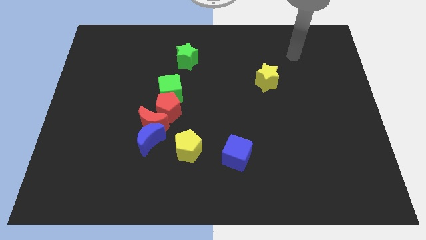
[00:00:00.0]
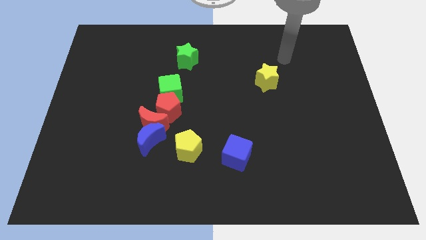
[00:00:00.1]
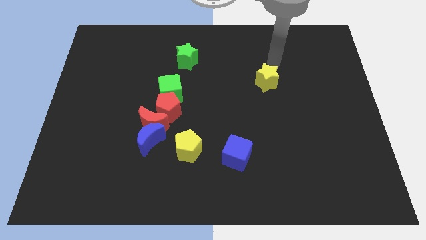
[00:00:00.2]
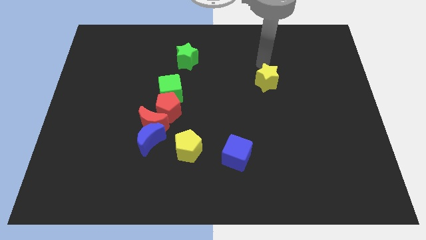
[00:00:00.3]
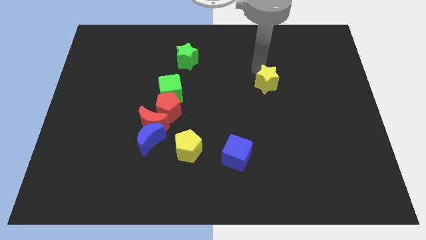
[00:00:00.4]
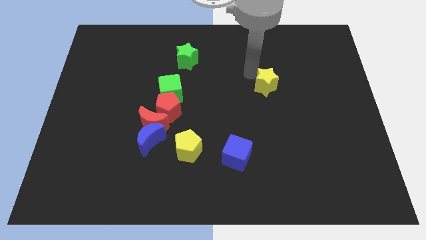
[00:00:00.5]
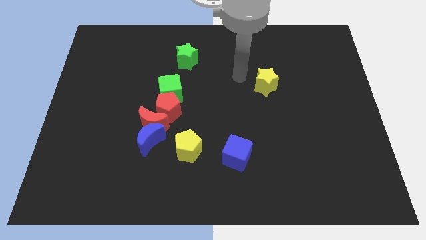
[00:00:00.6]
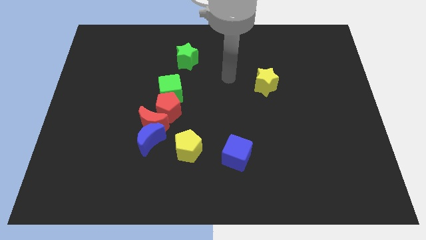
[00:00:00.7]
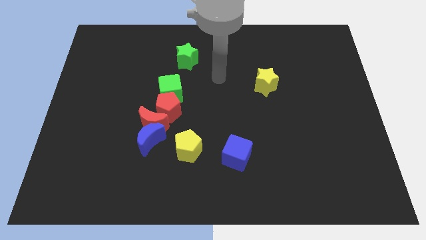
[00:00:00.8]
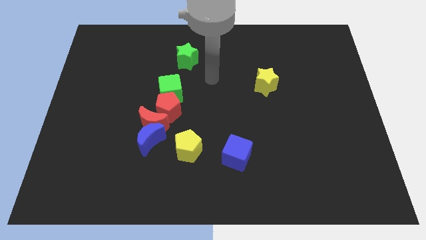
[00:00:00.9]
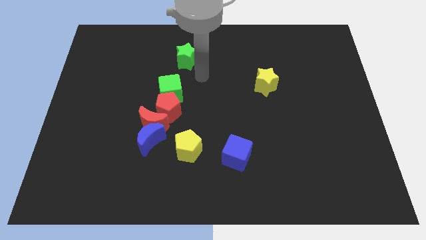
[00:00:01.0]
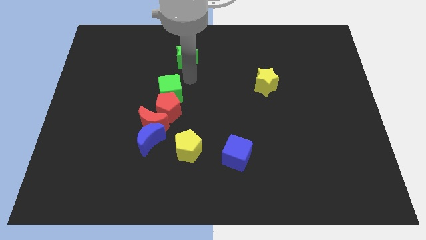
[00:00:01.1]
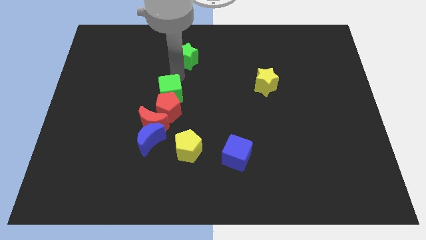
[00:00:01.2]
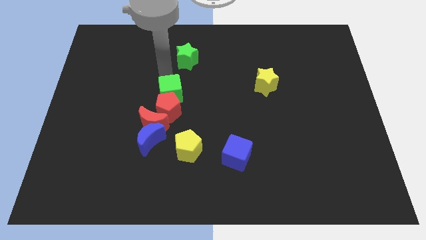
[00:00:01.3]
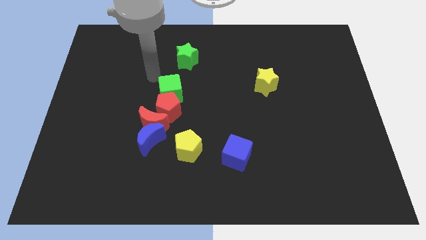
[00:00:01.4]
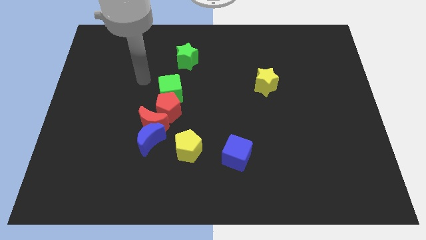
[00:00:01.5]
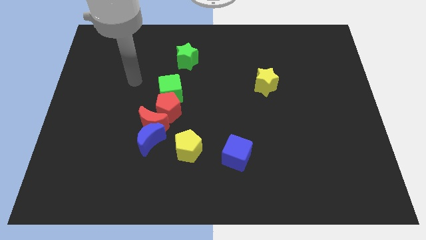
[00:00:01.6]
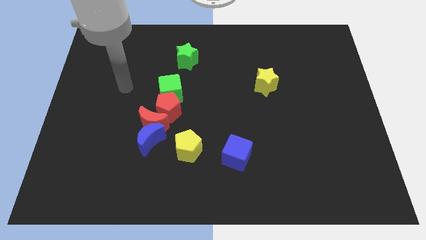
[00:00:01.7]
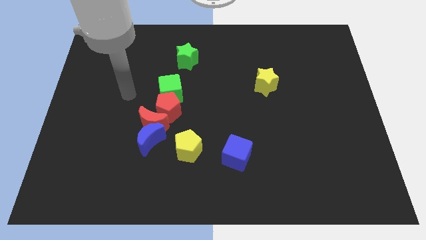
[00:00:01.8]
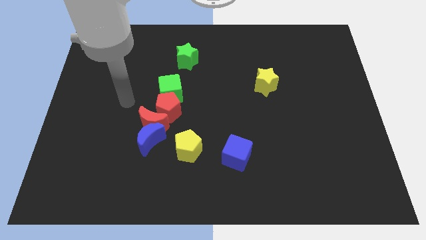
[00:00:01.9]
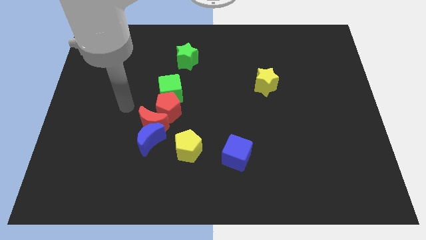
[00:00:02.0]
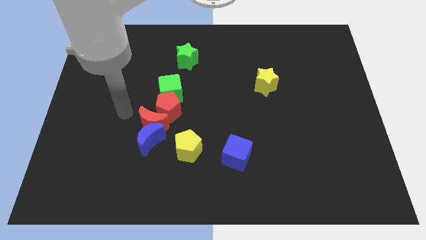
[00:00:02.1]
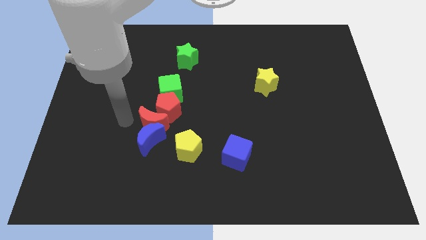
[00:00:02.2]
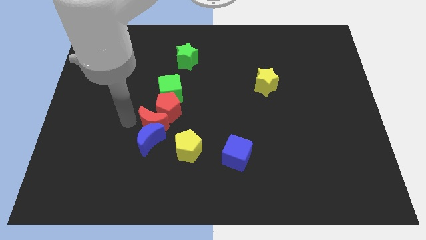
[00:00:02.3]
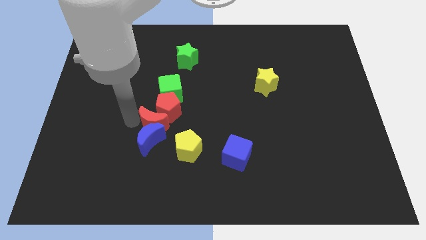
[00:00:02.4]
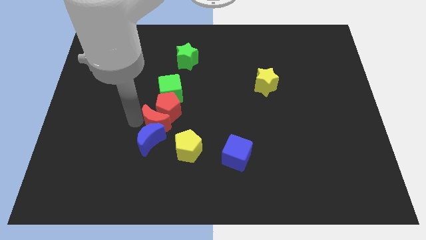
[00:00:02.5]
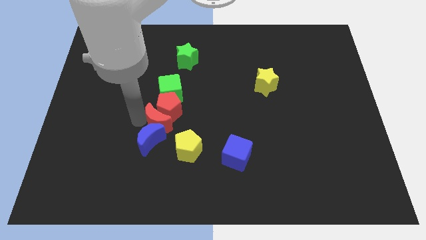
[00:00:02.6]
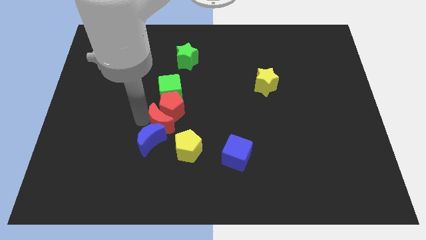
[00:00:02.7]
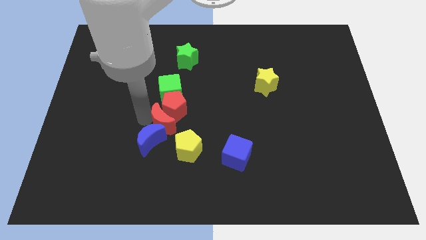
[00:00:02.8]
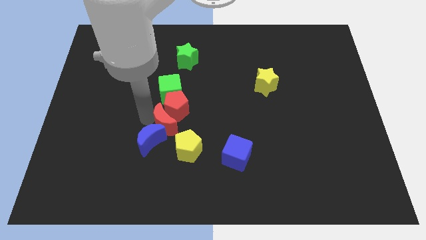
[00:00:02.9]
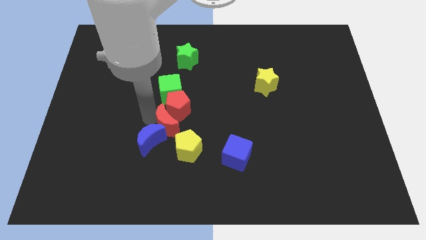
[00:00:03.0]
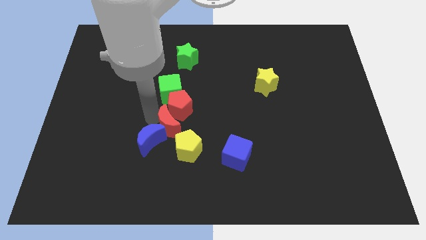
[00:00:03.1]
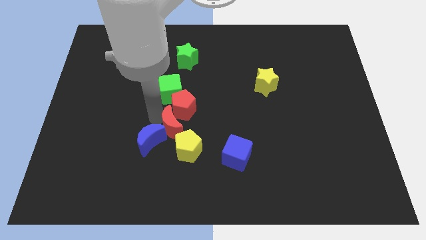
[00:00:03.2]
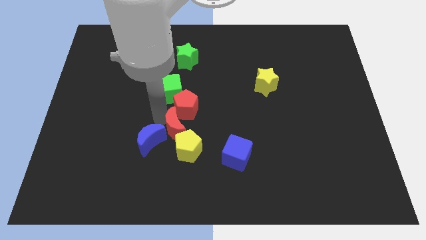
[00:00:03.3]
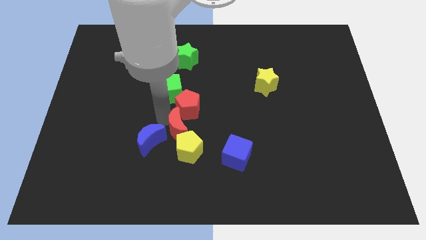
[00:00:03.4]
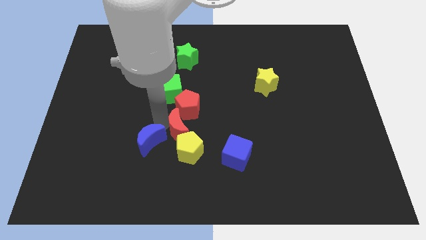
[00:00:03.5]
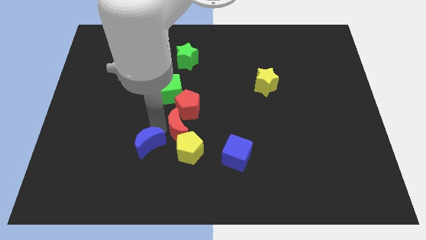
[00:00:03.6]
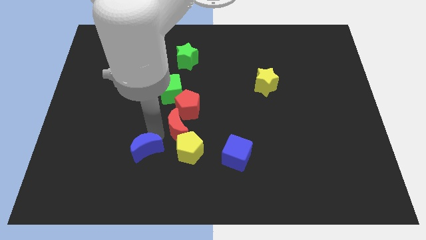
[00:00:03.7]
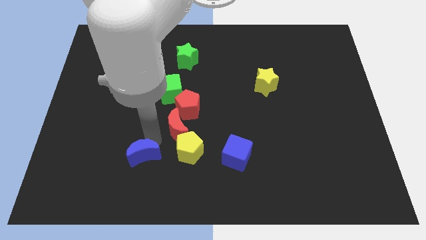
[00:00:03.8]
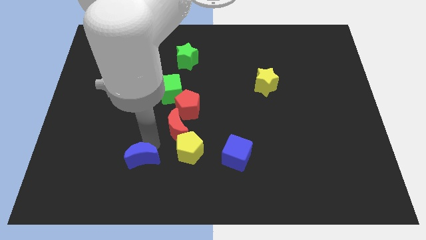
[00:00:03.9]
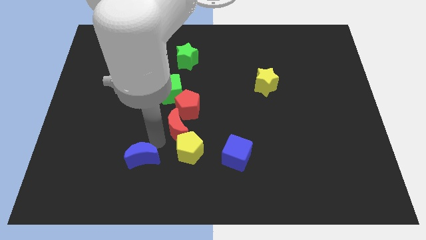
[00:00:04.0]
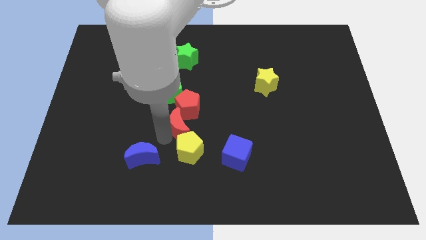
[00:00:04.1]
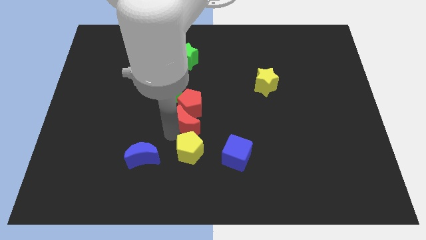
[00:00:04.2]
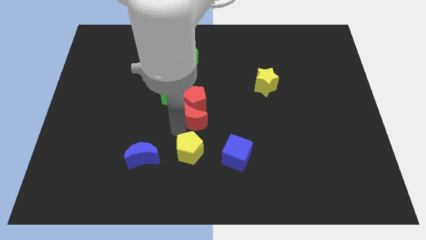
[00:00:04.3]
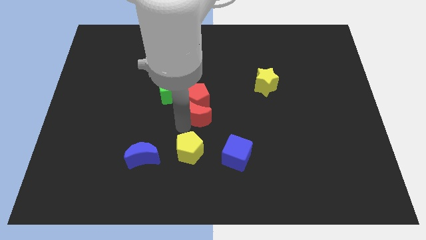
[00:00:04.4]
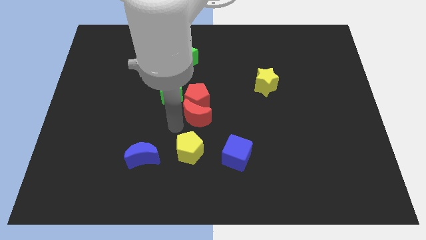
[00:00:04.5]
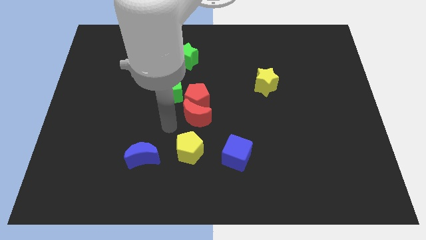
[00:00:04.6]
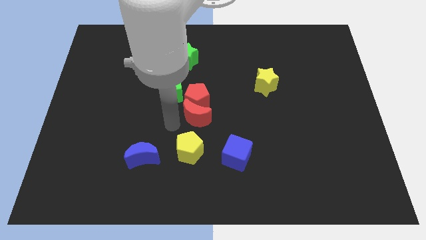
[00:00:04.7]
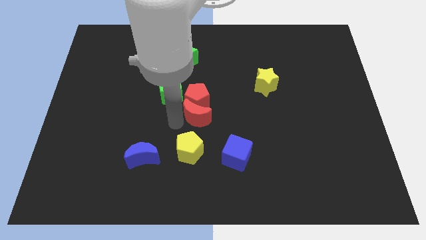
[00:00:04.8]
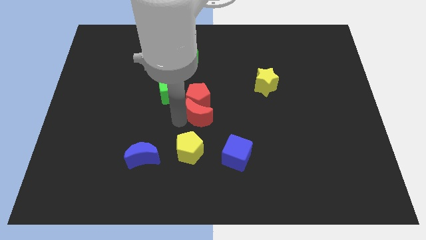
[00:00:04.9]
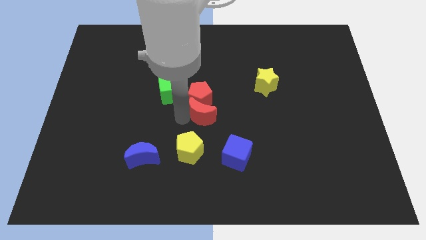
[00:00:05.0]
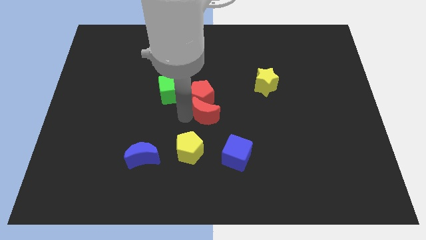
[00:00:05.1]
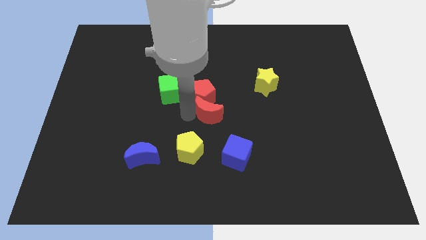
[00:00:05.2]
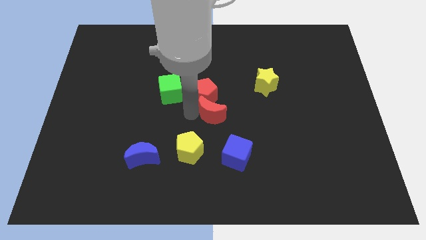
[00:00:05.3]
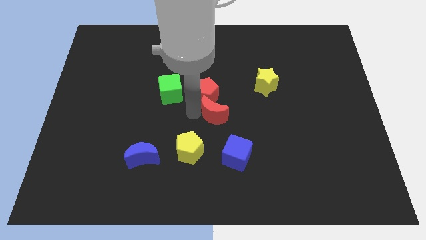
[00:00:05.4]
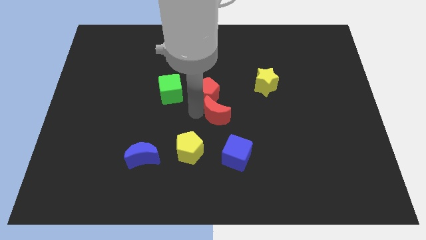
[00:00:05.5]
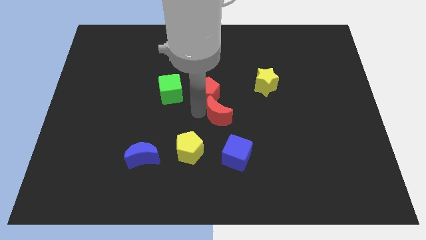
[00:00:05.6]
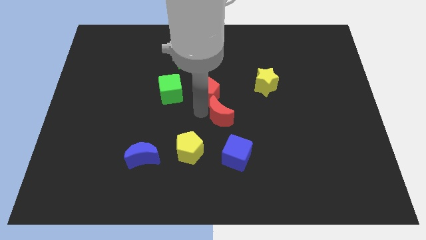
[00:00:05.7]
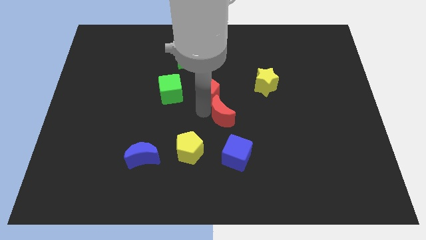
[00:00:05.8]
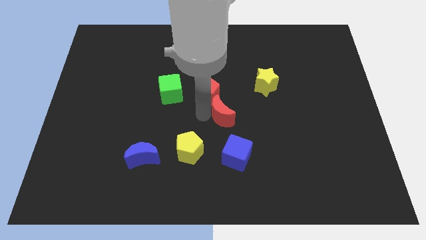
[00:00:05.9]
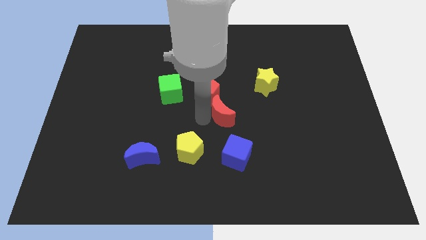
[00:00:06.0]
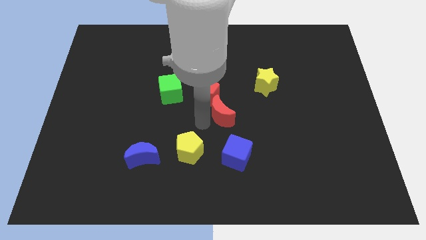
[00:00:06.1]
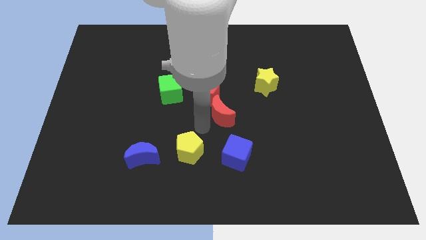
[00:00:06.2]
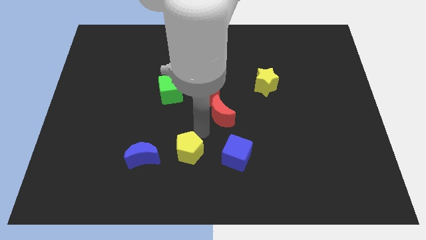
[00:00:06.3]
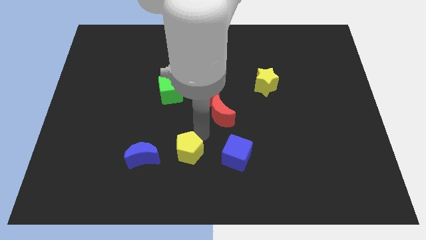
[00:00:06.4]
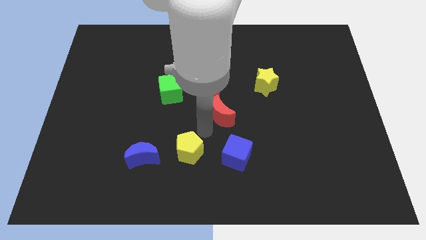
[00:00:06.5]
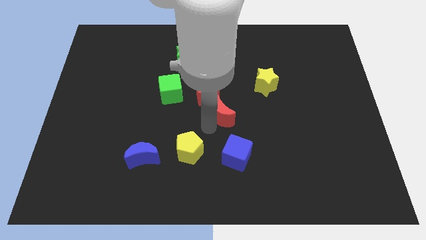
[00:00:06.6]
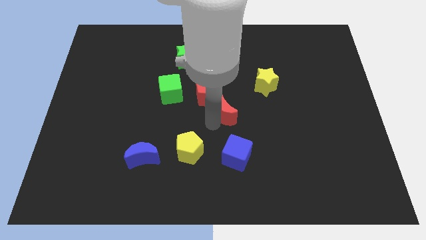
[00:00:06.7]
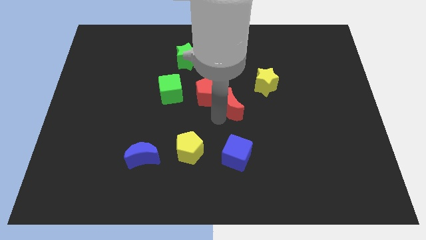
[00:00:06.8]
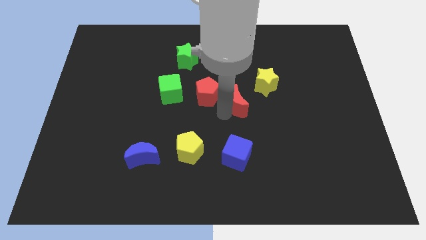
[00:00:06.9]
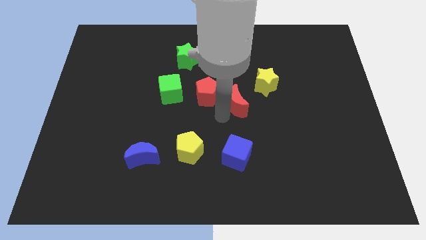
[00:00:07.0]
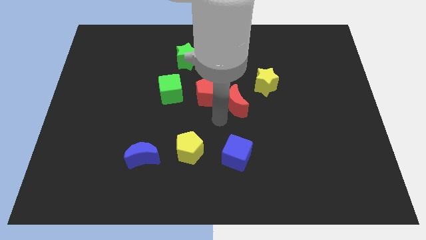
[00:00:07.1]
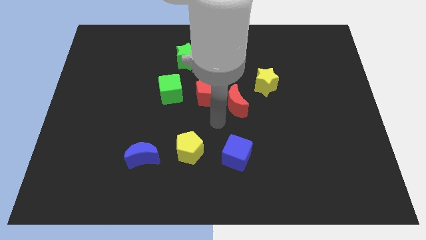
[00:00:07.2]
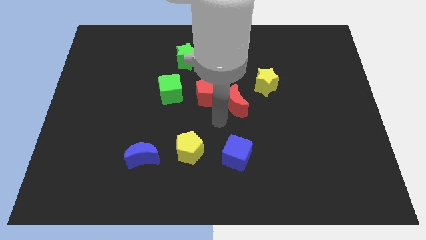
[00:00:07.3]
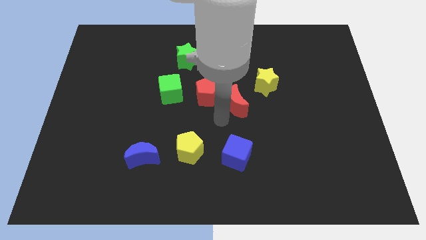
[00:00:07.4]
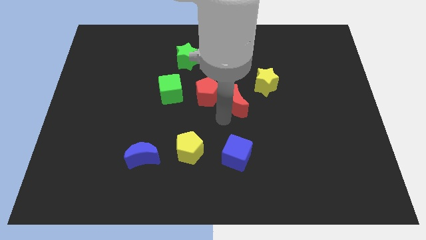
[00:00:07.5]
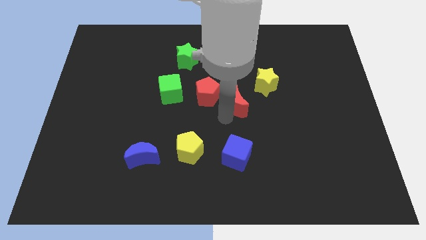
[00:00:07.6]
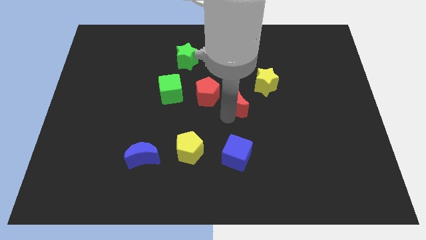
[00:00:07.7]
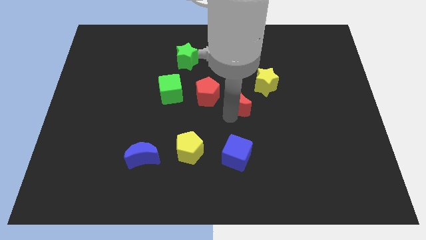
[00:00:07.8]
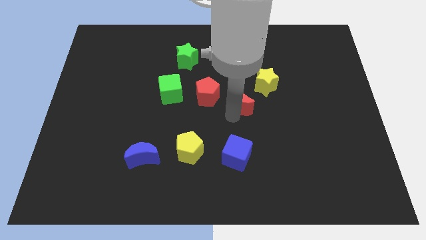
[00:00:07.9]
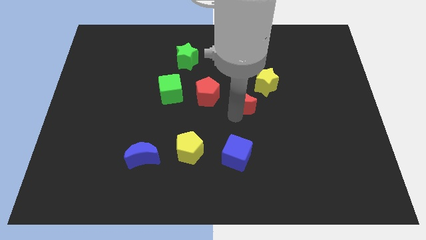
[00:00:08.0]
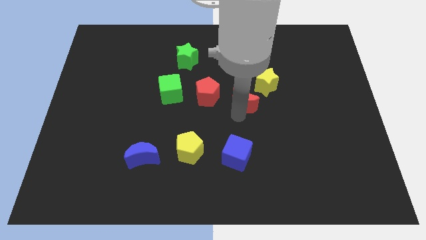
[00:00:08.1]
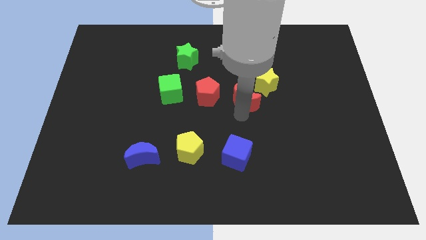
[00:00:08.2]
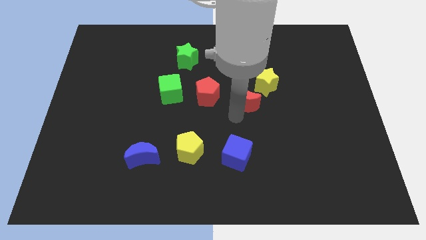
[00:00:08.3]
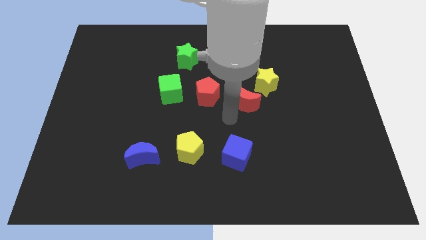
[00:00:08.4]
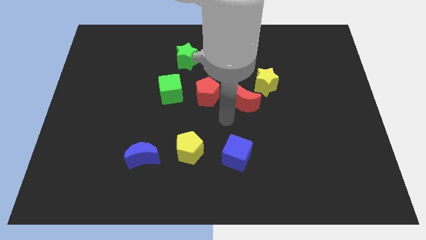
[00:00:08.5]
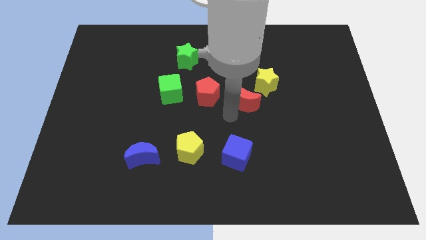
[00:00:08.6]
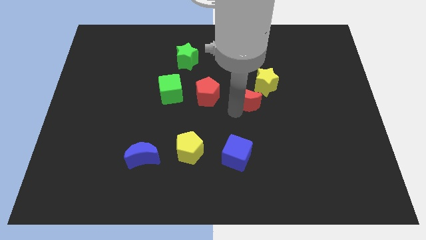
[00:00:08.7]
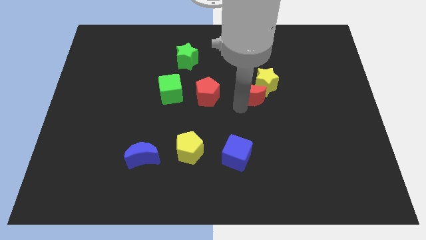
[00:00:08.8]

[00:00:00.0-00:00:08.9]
slide the red moon to the yellow star
